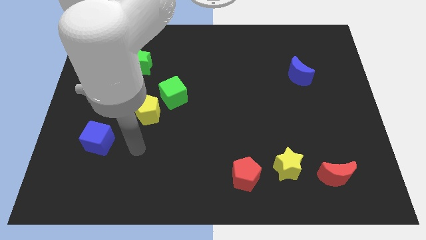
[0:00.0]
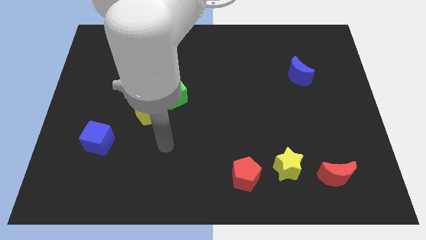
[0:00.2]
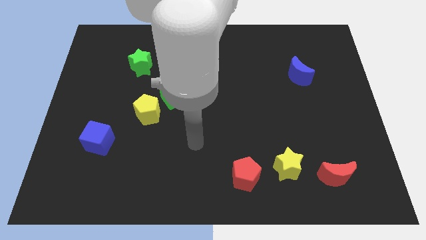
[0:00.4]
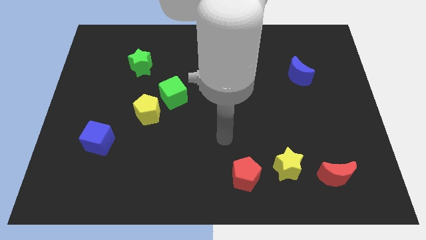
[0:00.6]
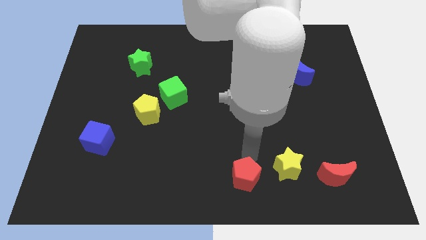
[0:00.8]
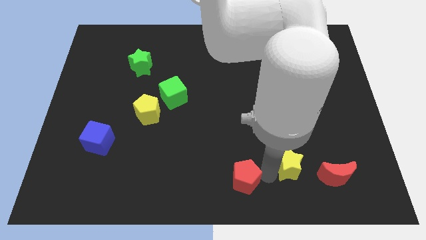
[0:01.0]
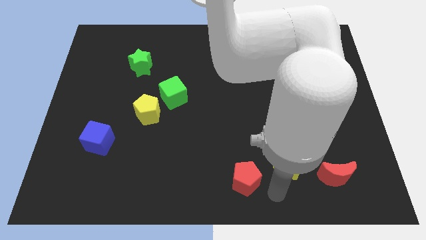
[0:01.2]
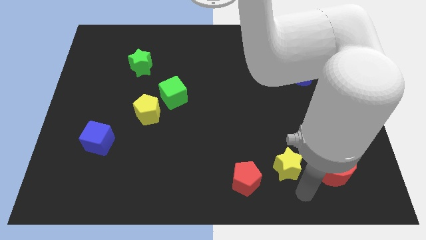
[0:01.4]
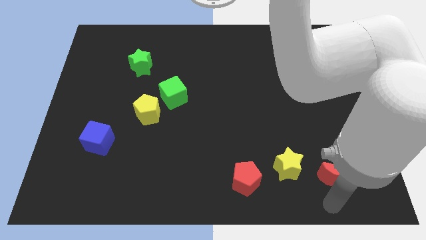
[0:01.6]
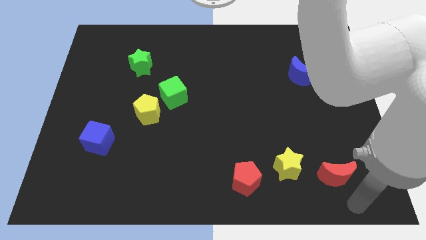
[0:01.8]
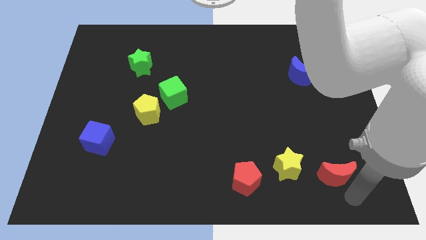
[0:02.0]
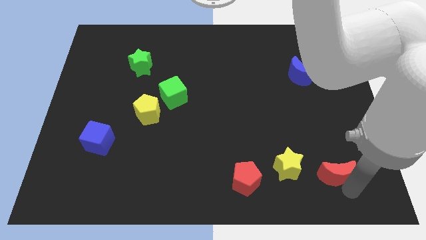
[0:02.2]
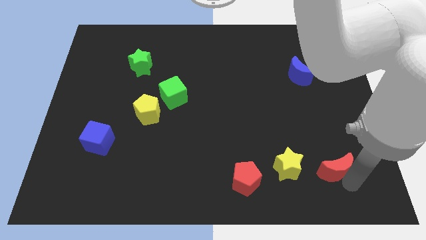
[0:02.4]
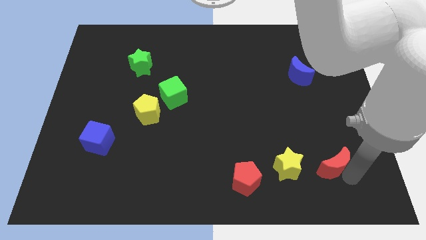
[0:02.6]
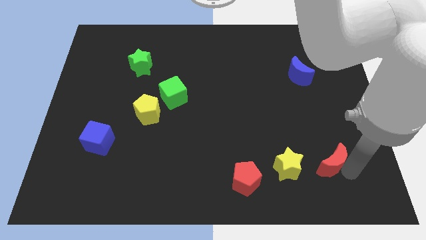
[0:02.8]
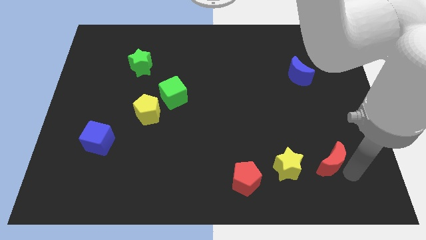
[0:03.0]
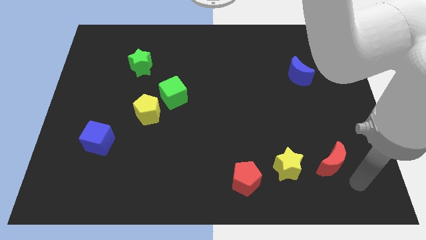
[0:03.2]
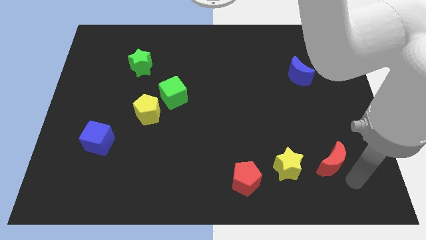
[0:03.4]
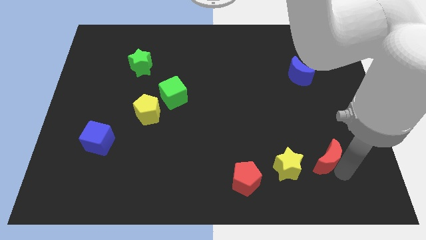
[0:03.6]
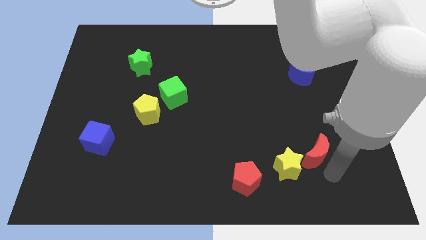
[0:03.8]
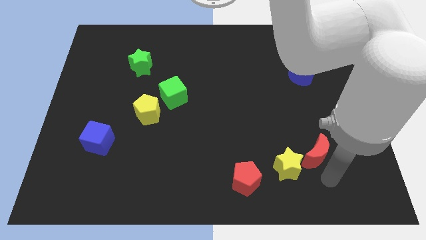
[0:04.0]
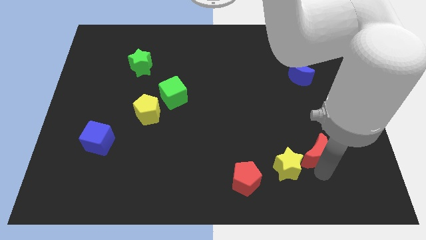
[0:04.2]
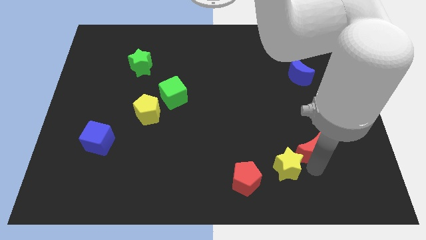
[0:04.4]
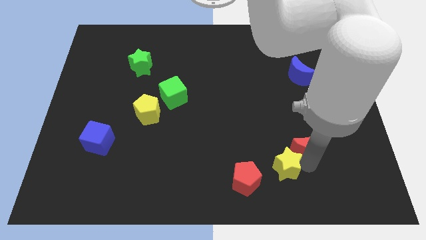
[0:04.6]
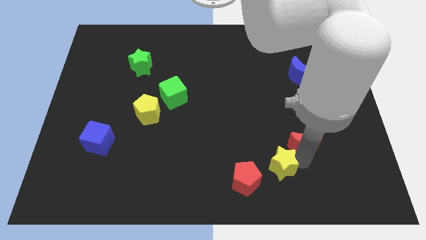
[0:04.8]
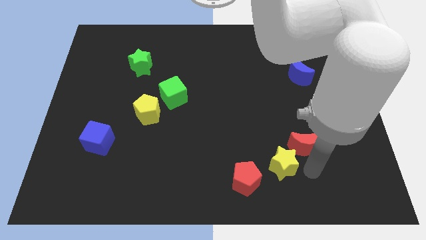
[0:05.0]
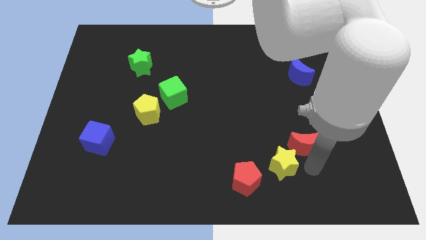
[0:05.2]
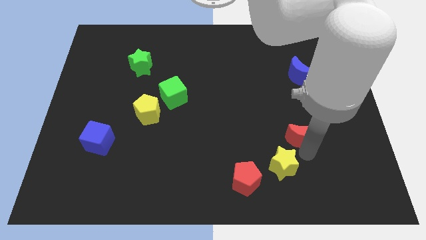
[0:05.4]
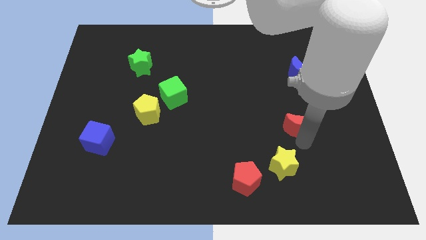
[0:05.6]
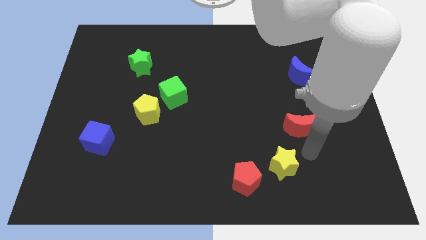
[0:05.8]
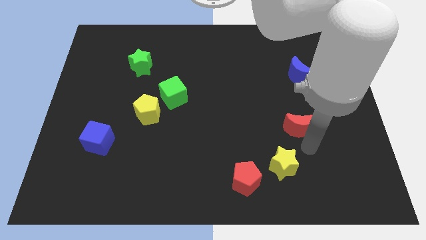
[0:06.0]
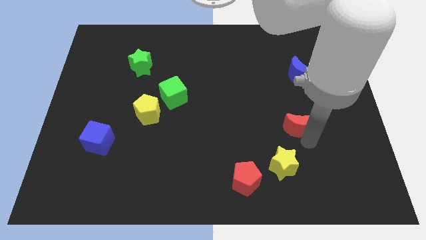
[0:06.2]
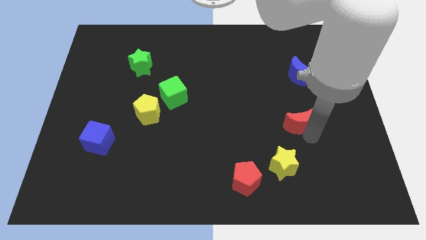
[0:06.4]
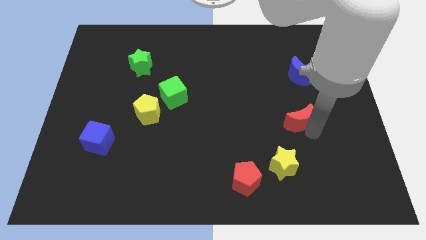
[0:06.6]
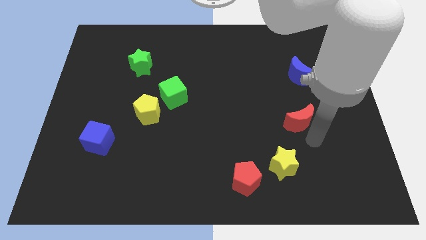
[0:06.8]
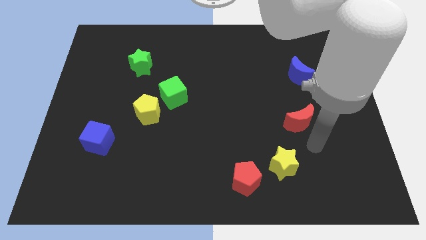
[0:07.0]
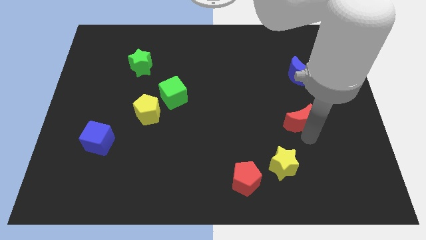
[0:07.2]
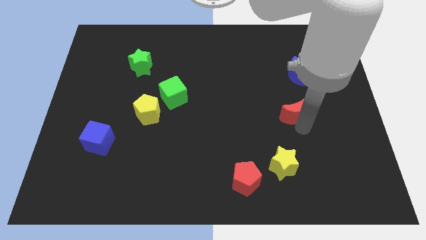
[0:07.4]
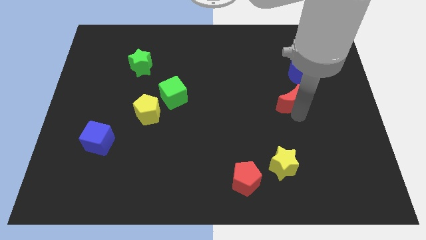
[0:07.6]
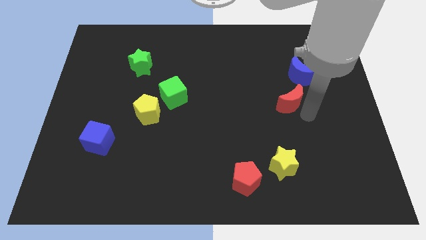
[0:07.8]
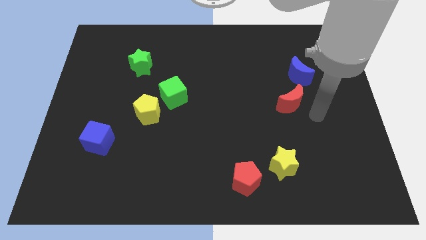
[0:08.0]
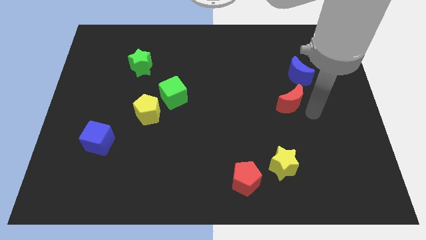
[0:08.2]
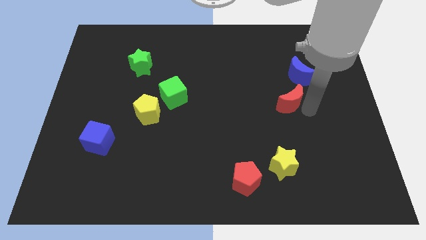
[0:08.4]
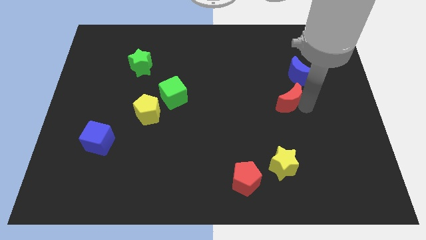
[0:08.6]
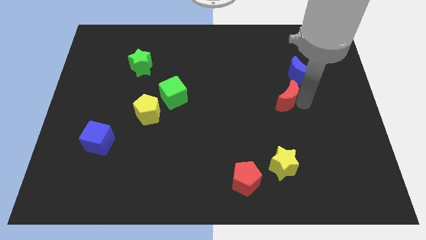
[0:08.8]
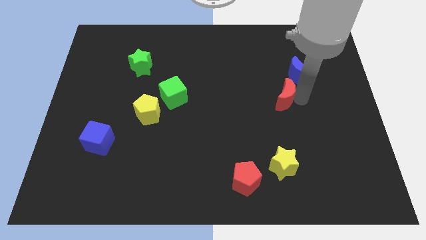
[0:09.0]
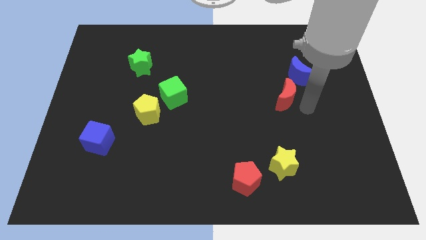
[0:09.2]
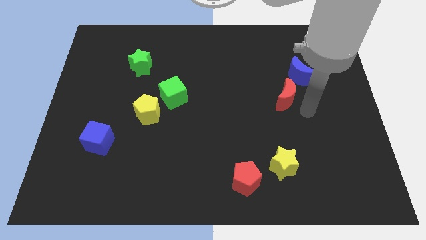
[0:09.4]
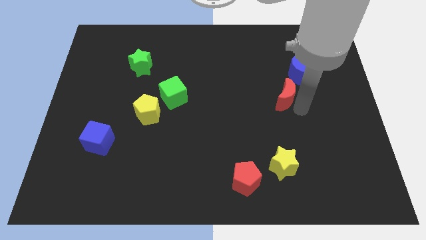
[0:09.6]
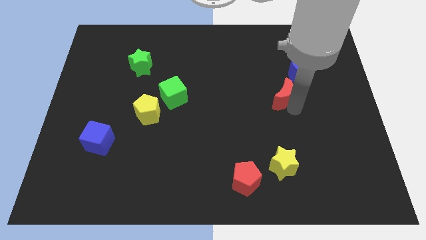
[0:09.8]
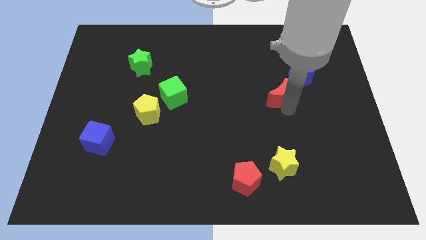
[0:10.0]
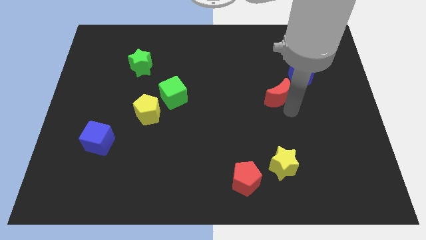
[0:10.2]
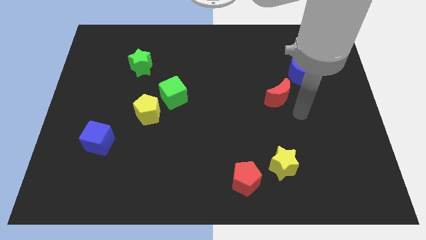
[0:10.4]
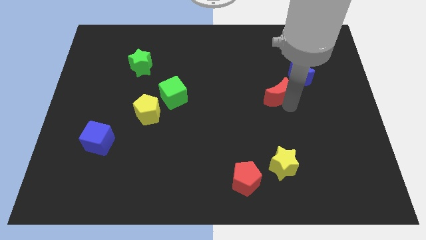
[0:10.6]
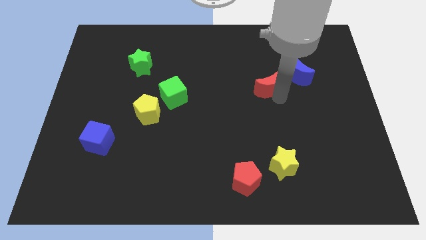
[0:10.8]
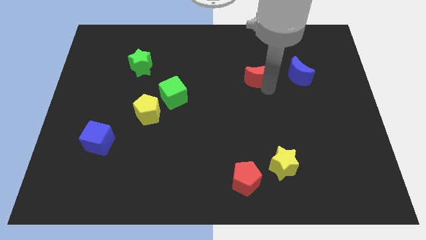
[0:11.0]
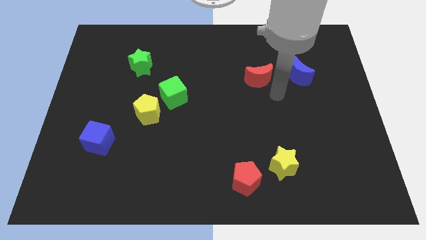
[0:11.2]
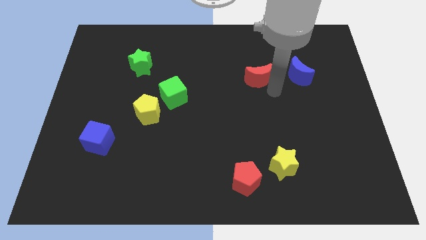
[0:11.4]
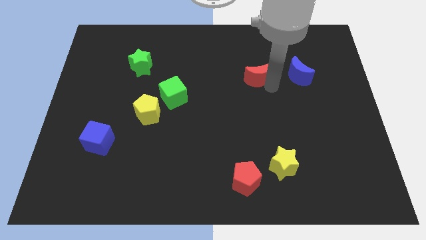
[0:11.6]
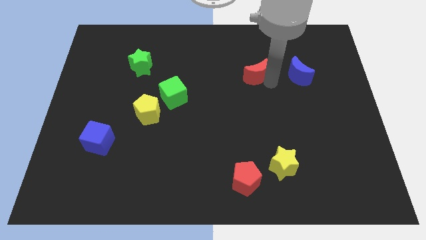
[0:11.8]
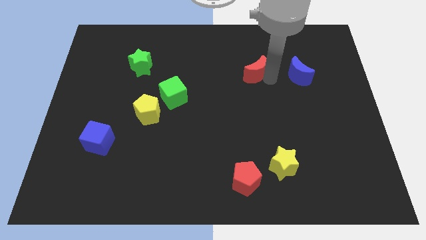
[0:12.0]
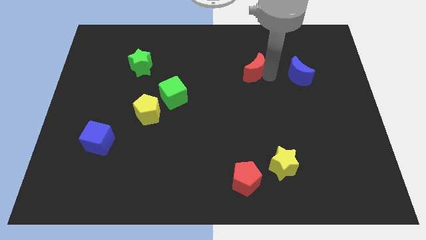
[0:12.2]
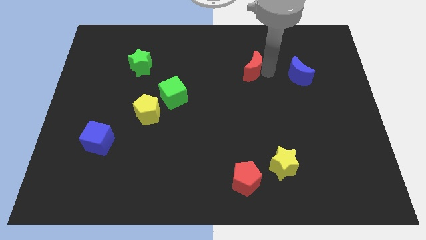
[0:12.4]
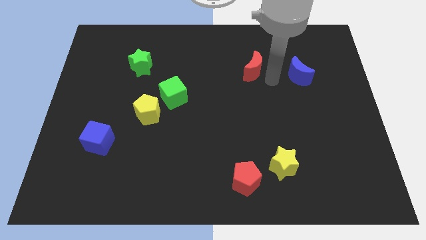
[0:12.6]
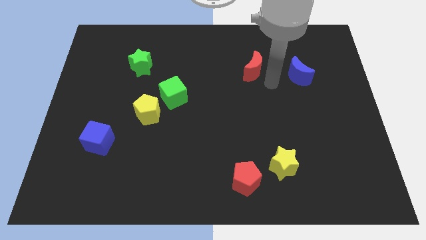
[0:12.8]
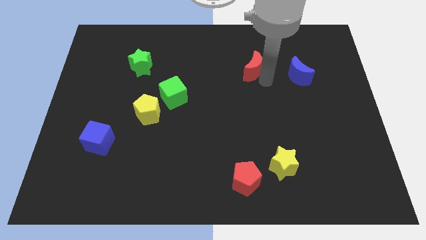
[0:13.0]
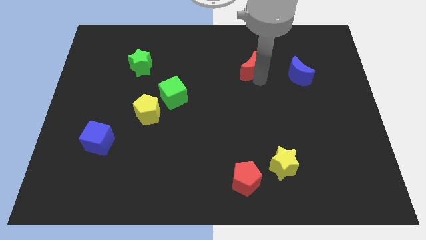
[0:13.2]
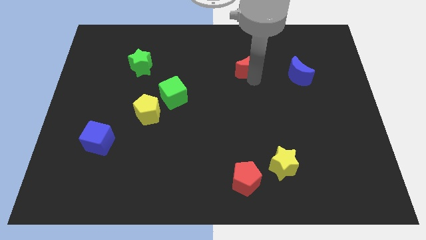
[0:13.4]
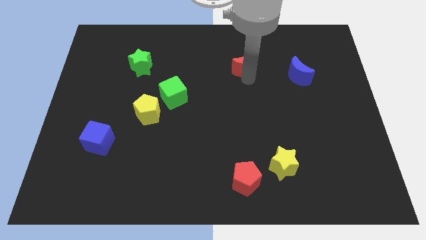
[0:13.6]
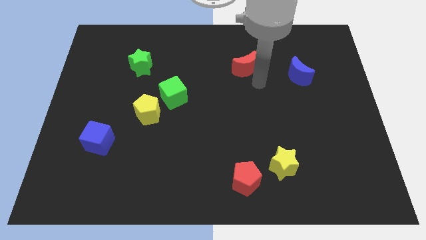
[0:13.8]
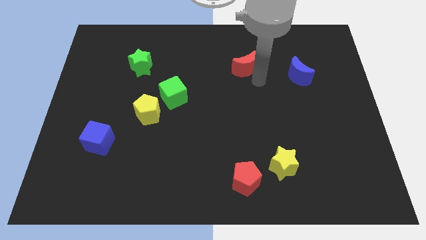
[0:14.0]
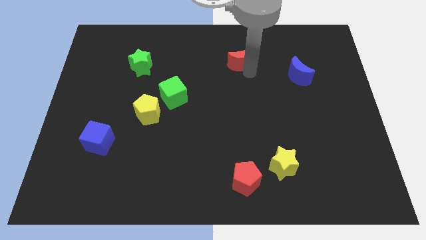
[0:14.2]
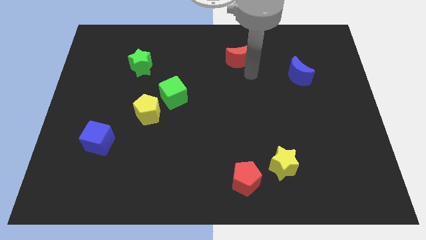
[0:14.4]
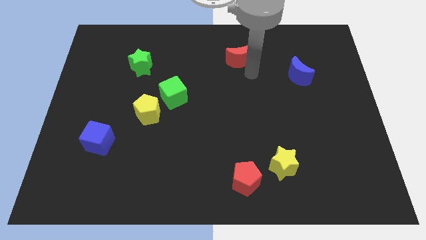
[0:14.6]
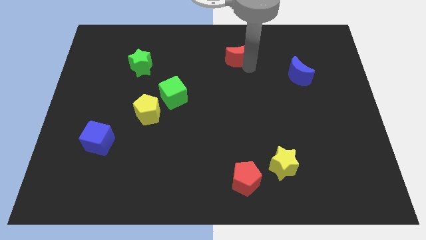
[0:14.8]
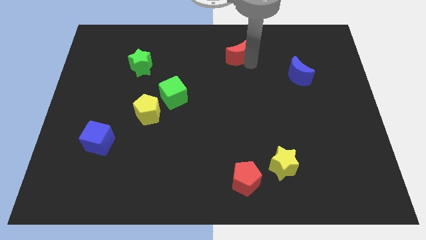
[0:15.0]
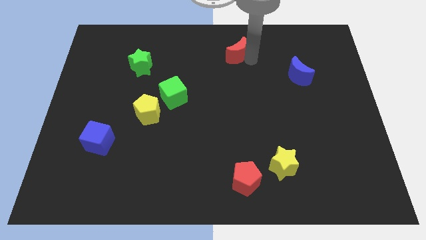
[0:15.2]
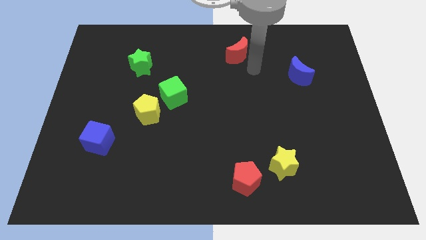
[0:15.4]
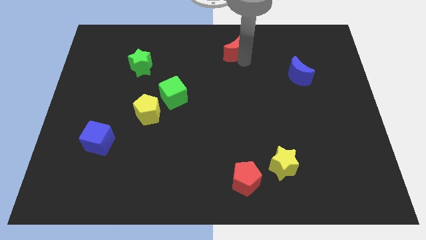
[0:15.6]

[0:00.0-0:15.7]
push the red moon to the top side
